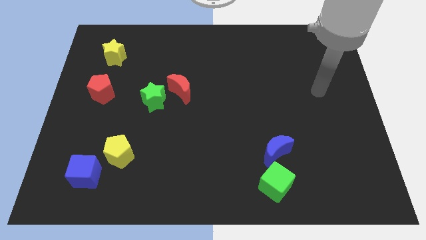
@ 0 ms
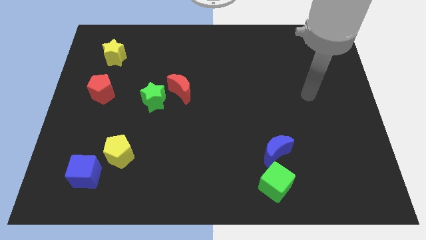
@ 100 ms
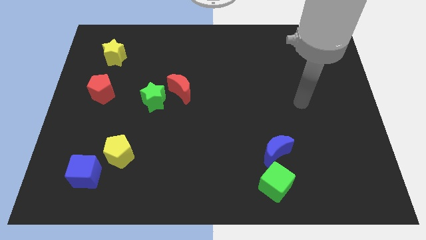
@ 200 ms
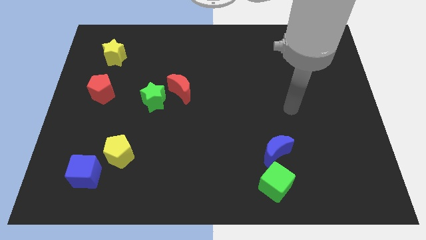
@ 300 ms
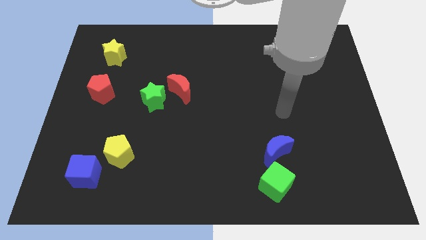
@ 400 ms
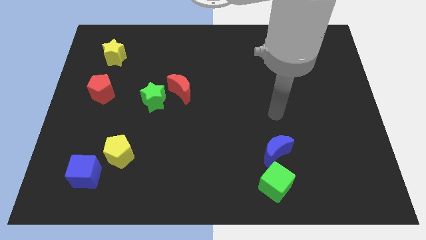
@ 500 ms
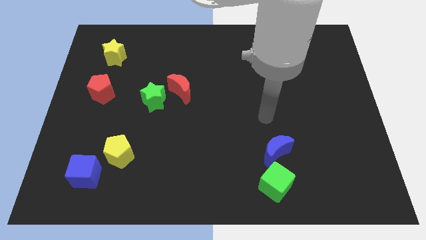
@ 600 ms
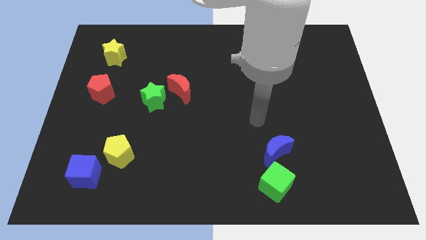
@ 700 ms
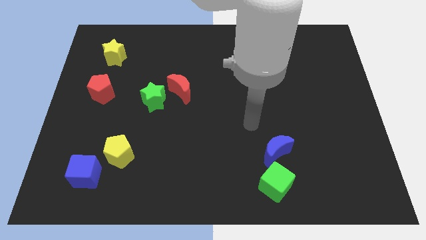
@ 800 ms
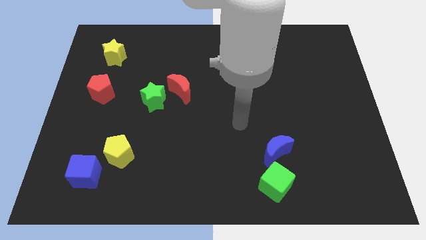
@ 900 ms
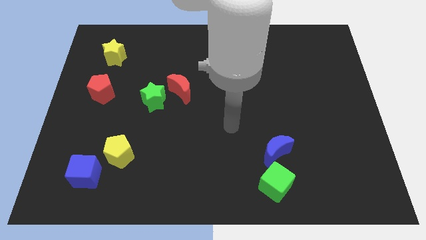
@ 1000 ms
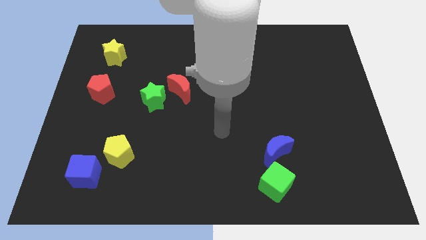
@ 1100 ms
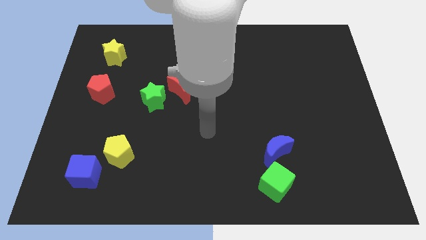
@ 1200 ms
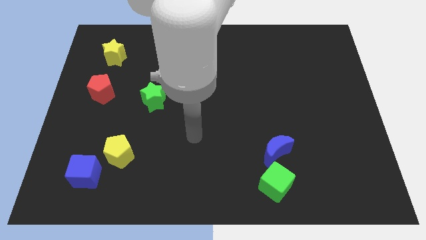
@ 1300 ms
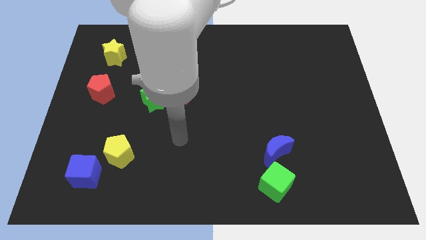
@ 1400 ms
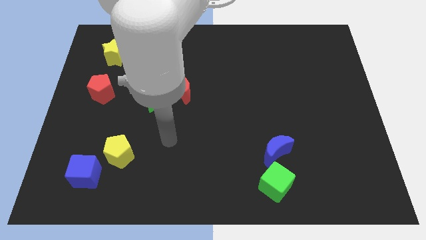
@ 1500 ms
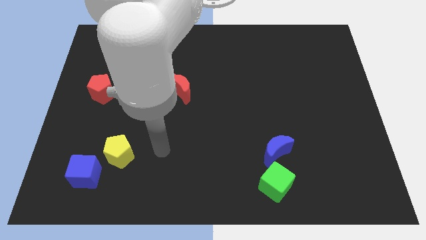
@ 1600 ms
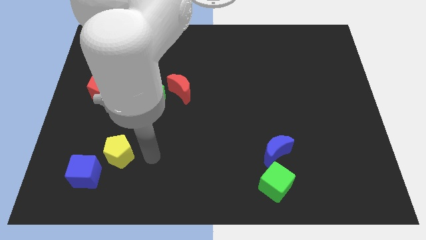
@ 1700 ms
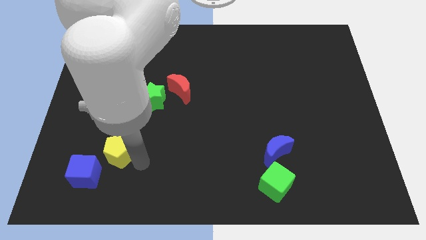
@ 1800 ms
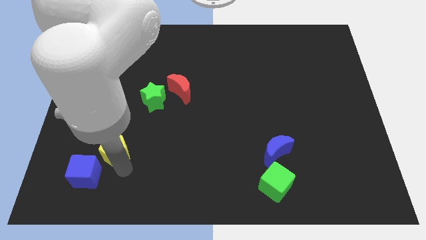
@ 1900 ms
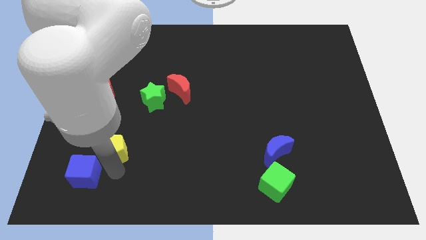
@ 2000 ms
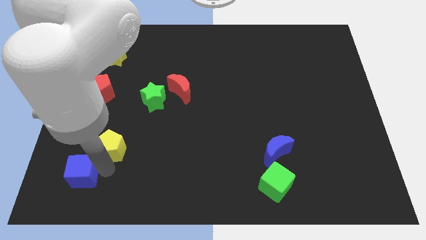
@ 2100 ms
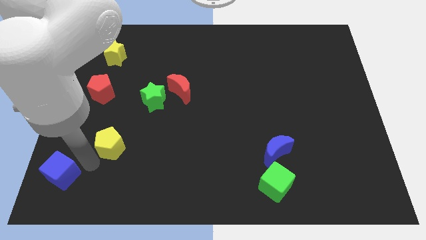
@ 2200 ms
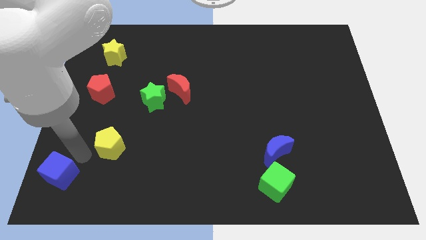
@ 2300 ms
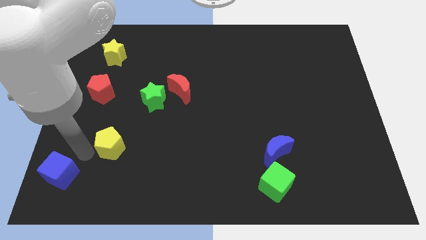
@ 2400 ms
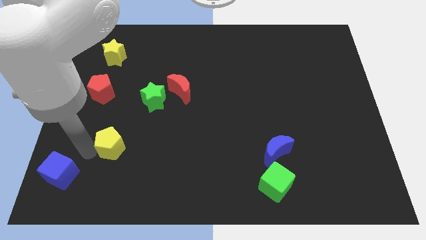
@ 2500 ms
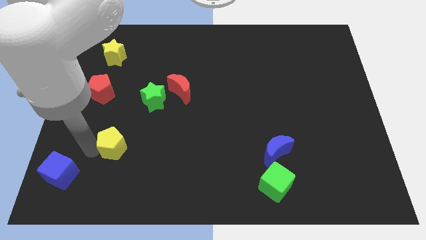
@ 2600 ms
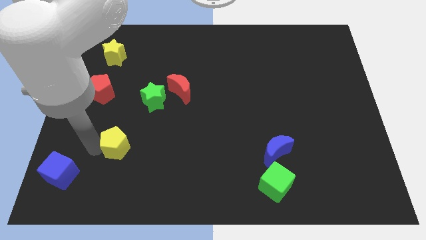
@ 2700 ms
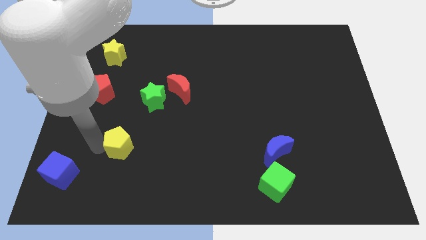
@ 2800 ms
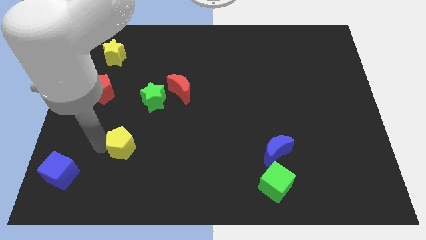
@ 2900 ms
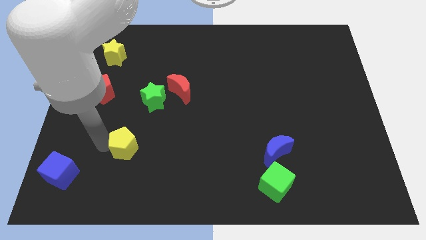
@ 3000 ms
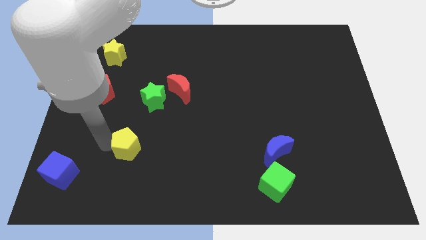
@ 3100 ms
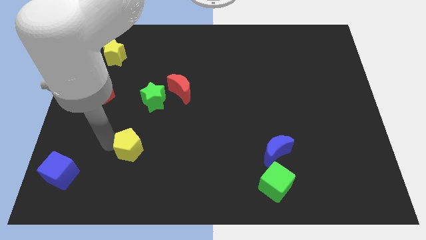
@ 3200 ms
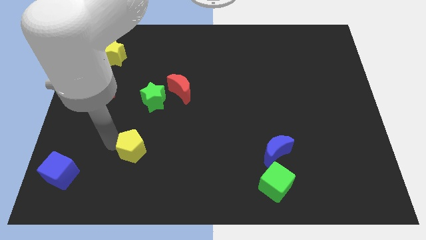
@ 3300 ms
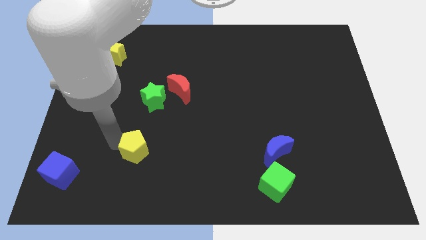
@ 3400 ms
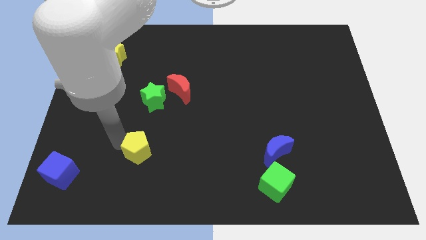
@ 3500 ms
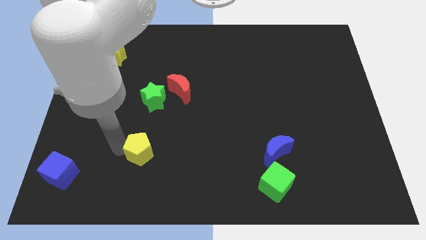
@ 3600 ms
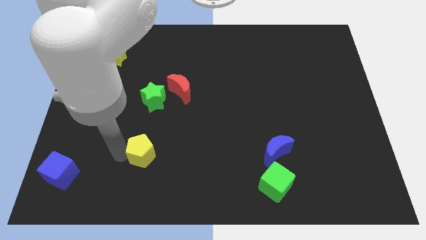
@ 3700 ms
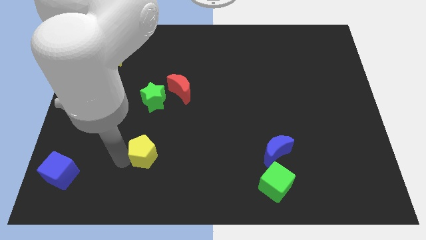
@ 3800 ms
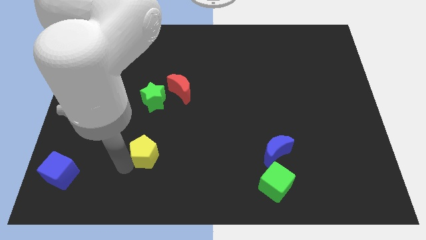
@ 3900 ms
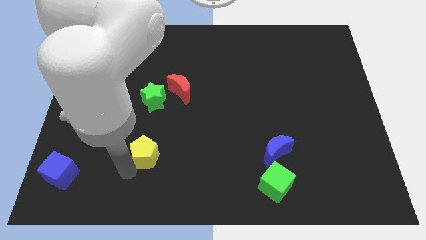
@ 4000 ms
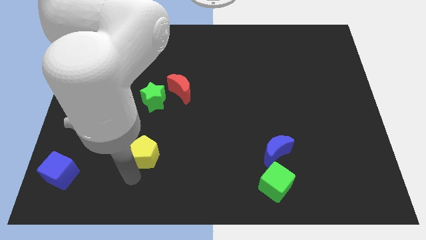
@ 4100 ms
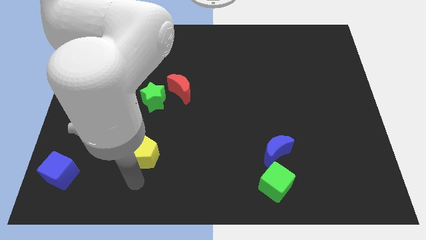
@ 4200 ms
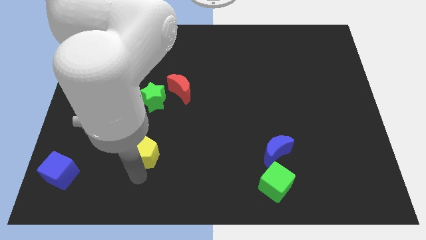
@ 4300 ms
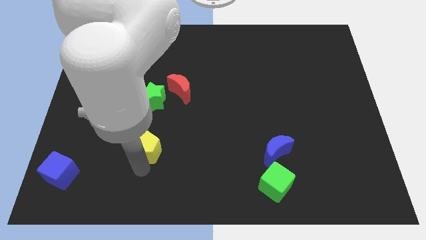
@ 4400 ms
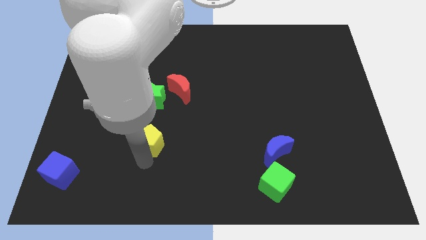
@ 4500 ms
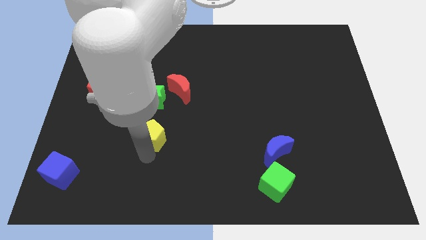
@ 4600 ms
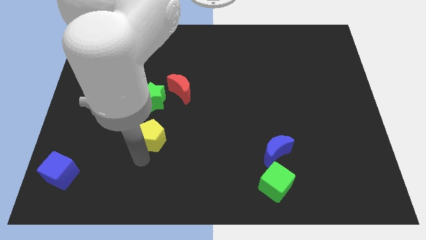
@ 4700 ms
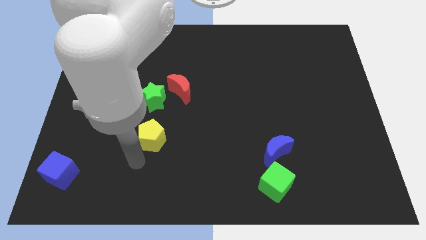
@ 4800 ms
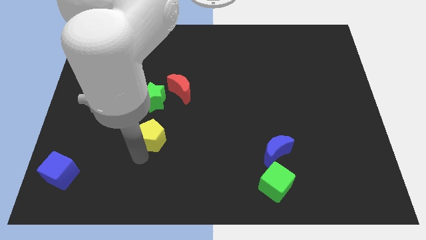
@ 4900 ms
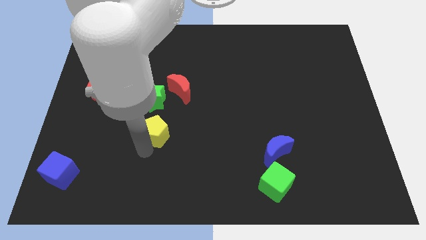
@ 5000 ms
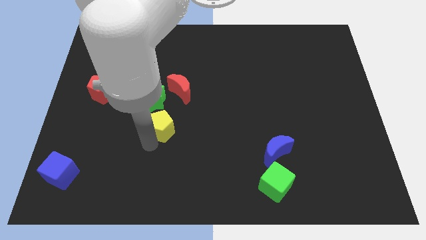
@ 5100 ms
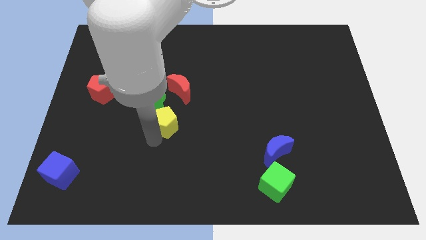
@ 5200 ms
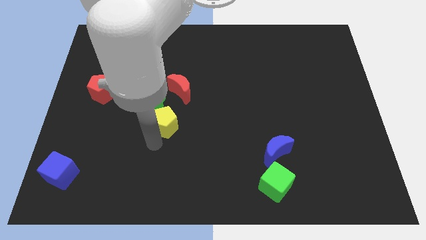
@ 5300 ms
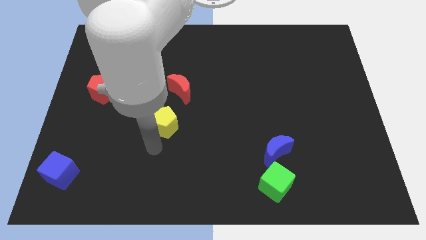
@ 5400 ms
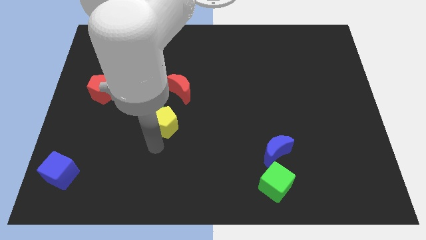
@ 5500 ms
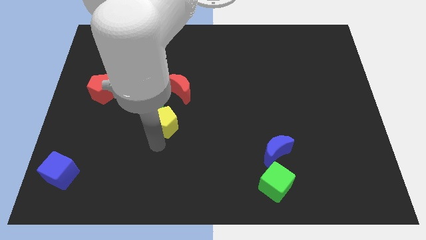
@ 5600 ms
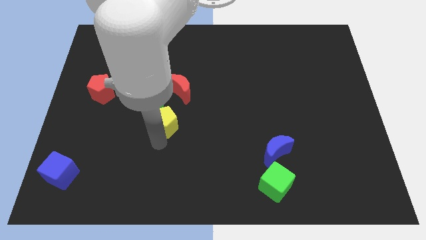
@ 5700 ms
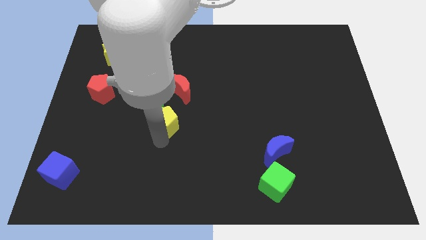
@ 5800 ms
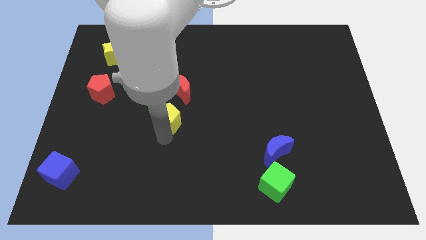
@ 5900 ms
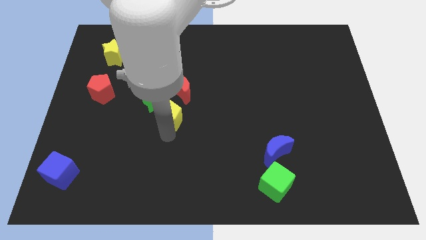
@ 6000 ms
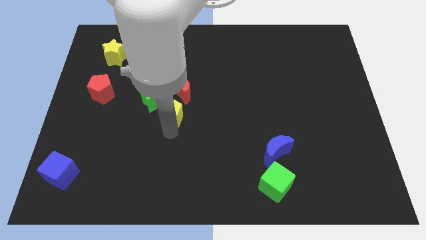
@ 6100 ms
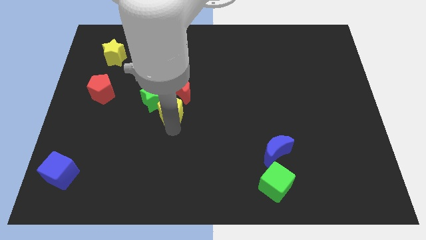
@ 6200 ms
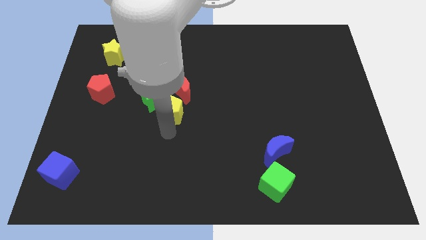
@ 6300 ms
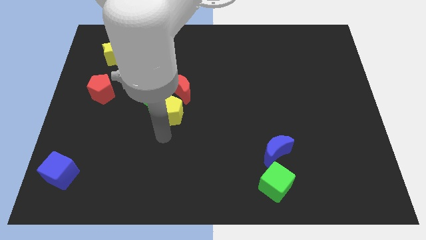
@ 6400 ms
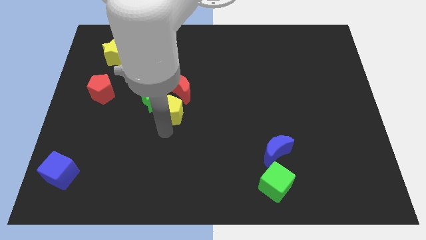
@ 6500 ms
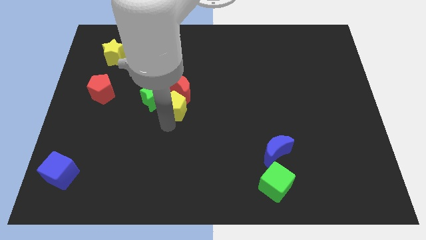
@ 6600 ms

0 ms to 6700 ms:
put the yellow pentagon next to the red moon
